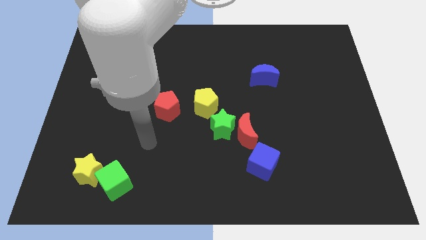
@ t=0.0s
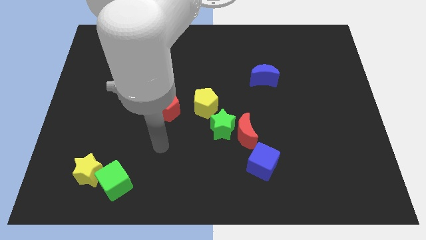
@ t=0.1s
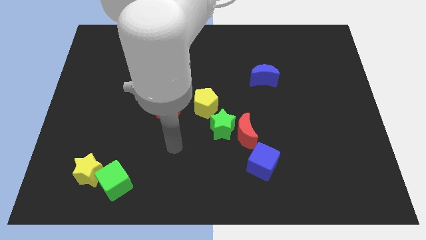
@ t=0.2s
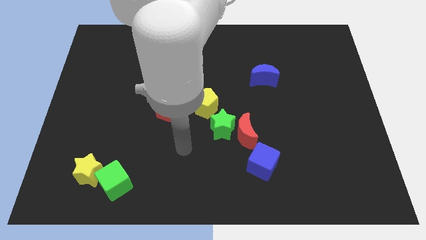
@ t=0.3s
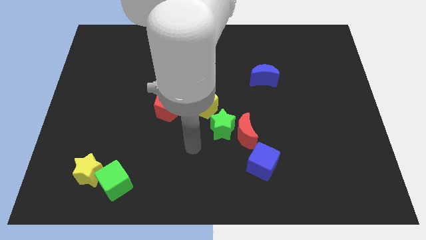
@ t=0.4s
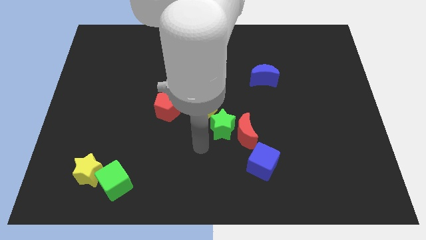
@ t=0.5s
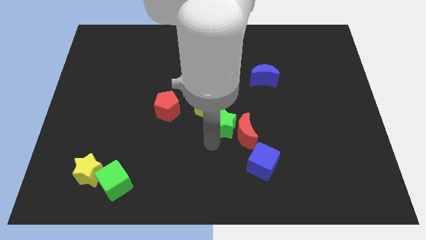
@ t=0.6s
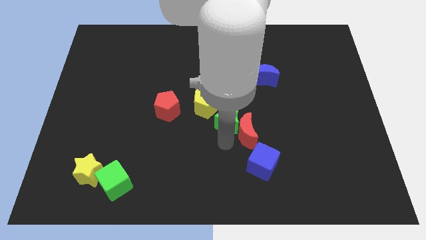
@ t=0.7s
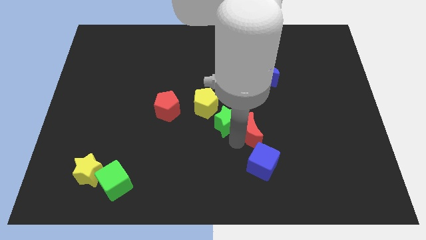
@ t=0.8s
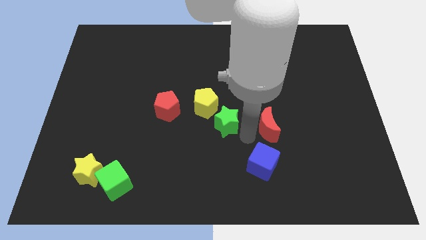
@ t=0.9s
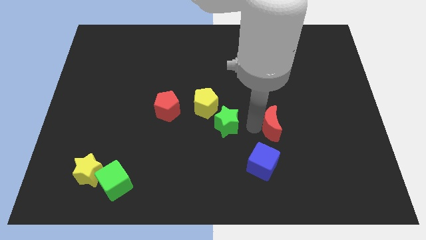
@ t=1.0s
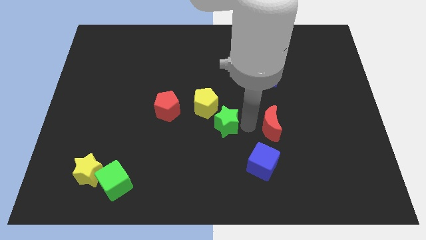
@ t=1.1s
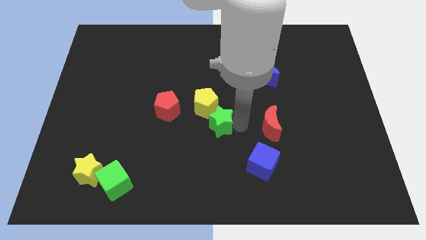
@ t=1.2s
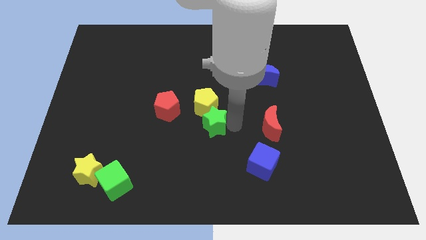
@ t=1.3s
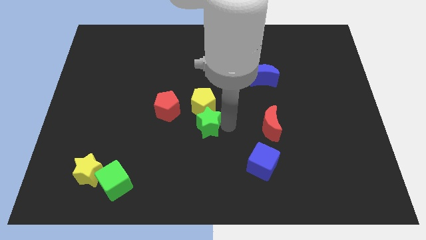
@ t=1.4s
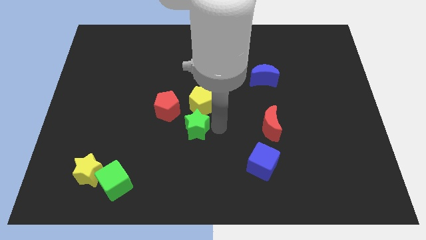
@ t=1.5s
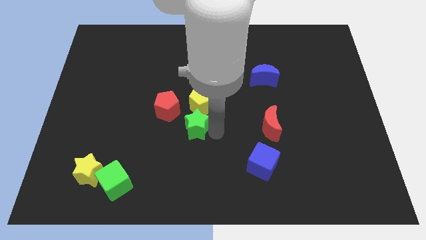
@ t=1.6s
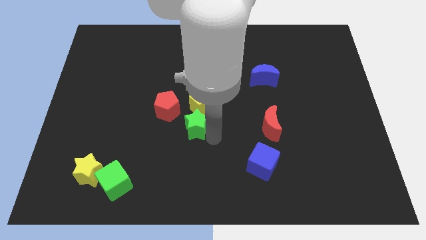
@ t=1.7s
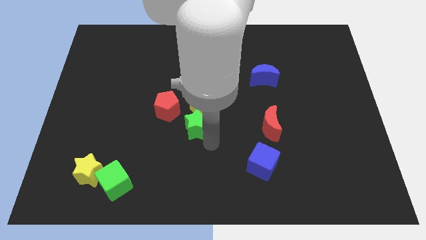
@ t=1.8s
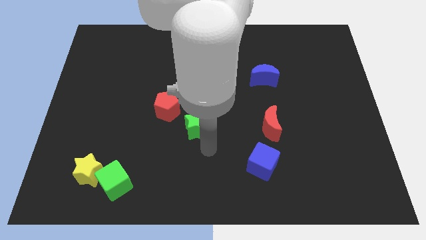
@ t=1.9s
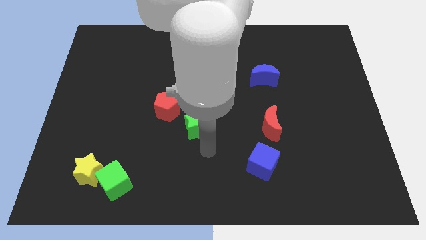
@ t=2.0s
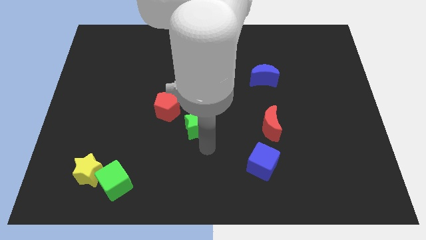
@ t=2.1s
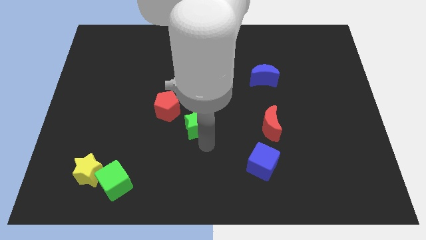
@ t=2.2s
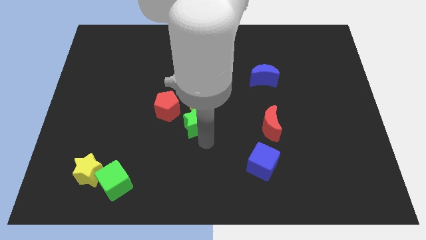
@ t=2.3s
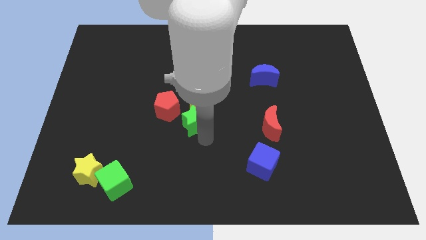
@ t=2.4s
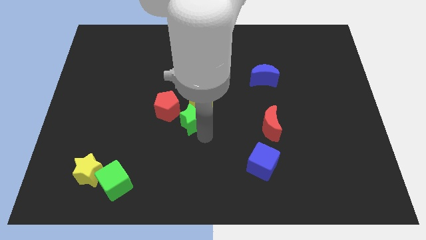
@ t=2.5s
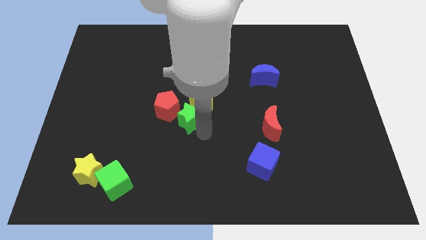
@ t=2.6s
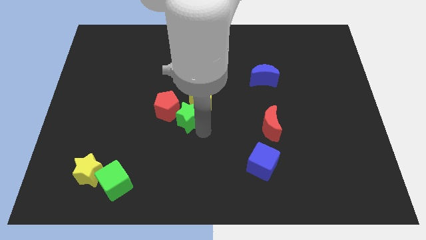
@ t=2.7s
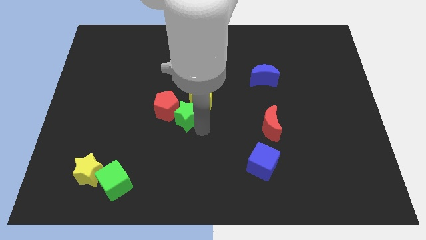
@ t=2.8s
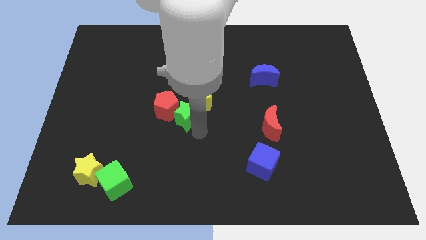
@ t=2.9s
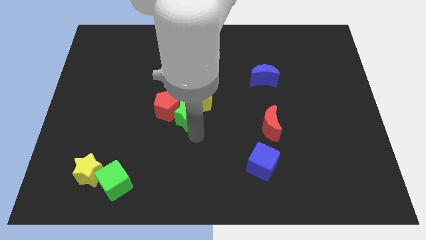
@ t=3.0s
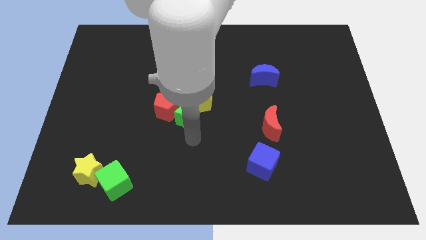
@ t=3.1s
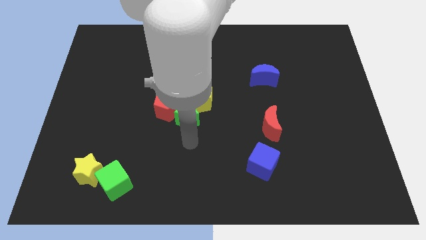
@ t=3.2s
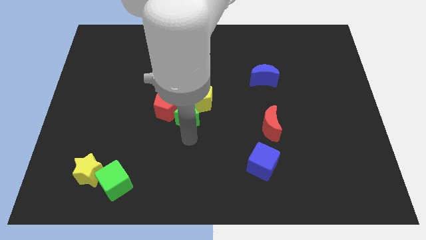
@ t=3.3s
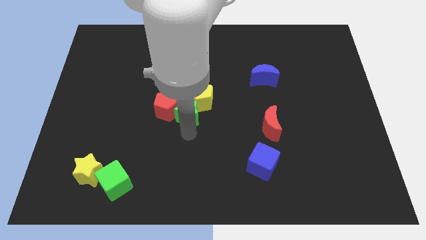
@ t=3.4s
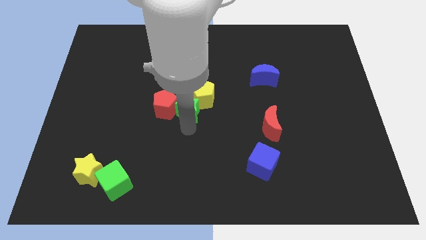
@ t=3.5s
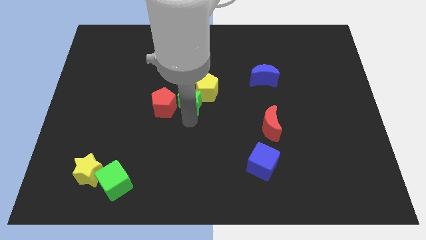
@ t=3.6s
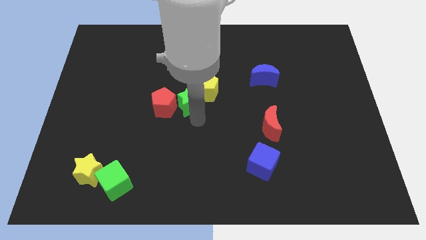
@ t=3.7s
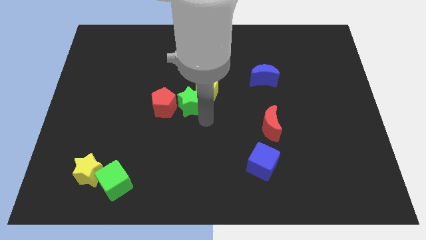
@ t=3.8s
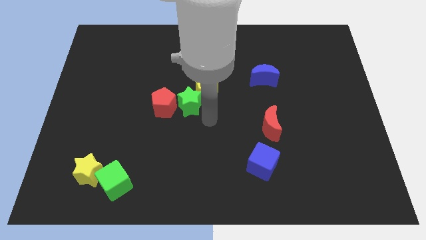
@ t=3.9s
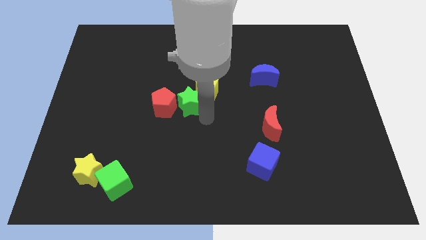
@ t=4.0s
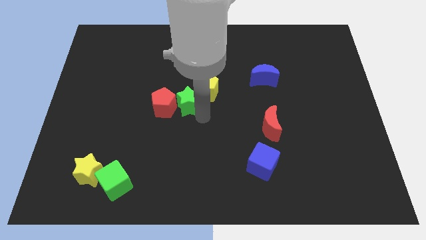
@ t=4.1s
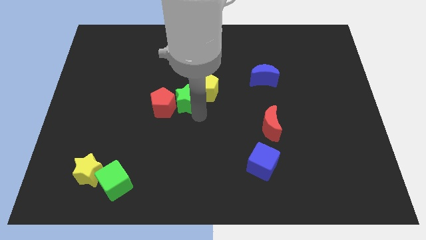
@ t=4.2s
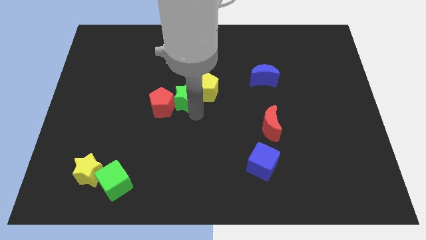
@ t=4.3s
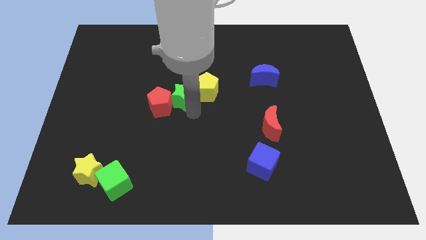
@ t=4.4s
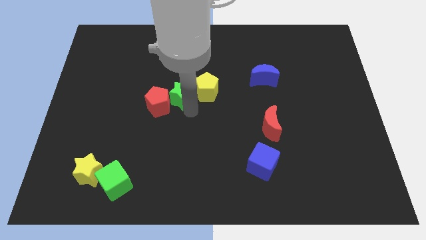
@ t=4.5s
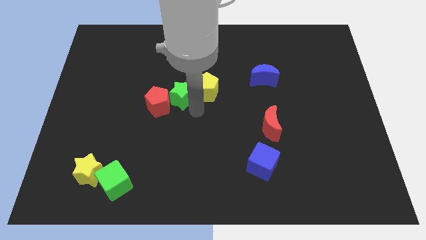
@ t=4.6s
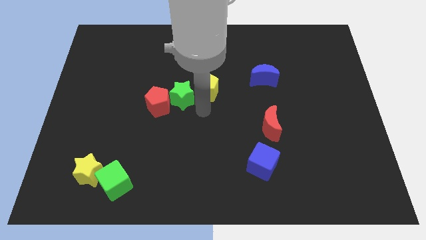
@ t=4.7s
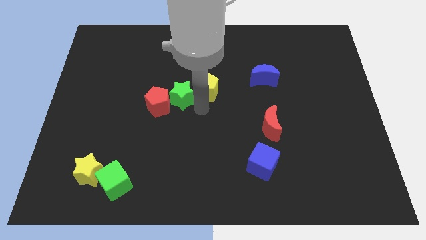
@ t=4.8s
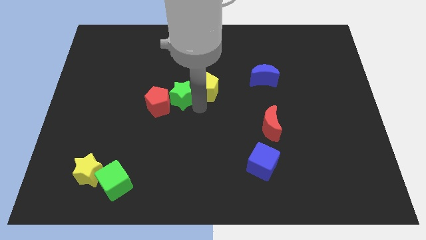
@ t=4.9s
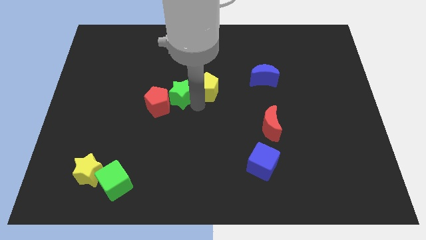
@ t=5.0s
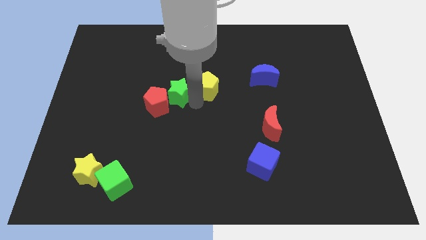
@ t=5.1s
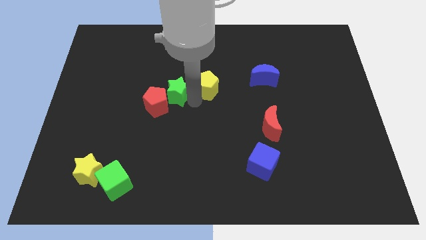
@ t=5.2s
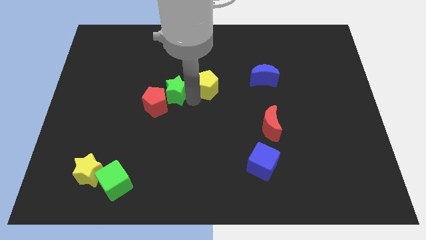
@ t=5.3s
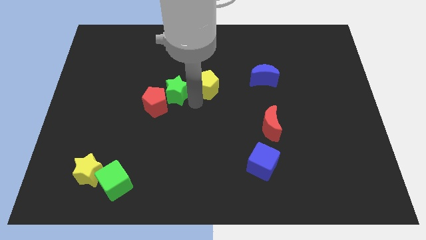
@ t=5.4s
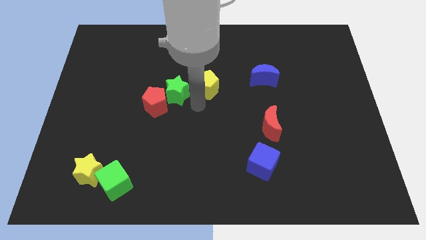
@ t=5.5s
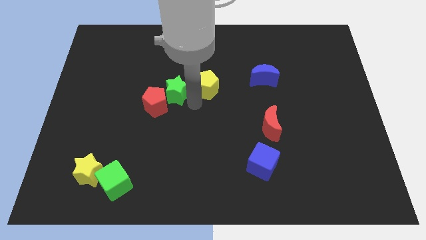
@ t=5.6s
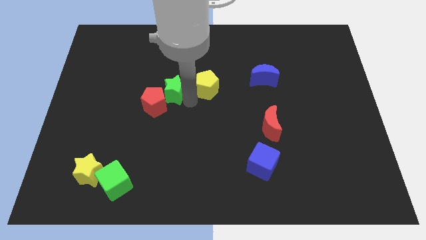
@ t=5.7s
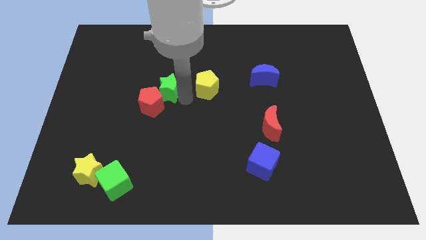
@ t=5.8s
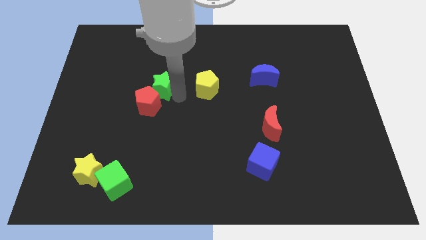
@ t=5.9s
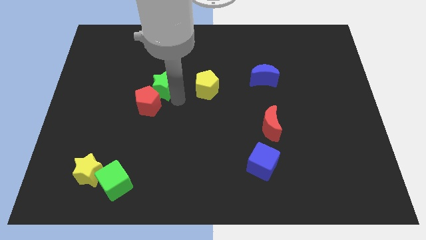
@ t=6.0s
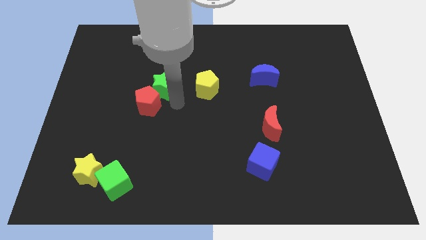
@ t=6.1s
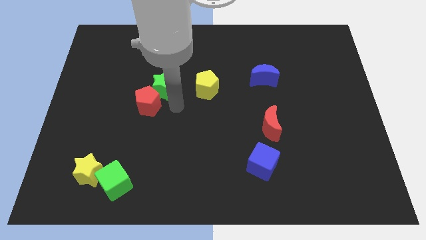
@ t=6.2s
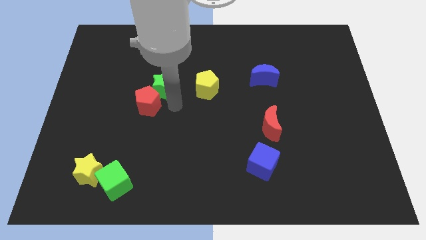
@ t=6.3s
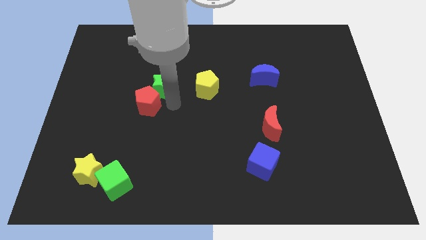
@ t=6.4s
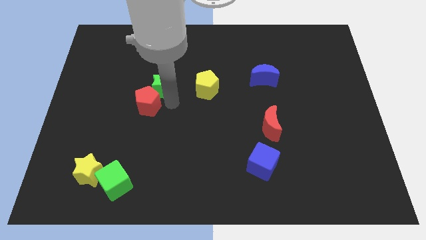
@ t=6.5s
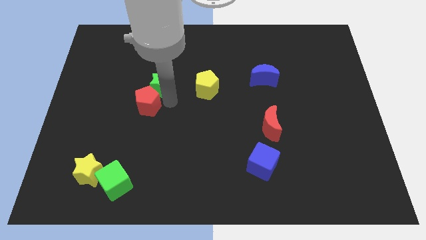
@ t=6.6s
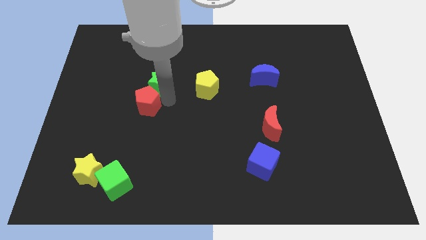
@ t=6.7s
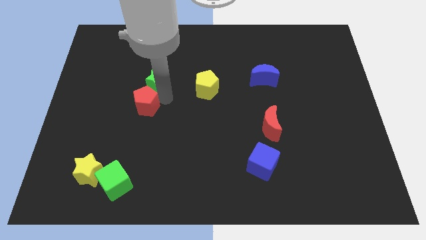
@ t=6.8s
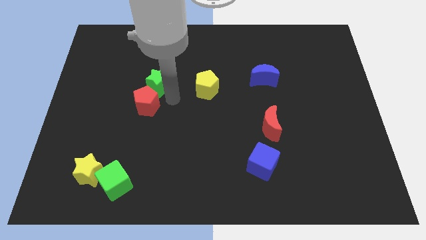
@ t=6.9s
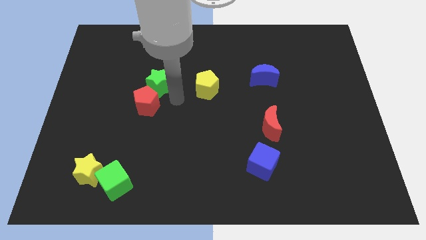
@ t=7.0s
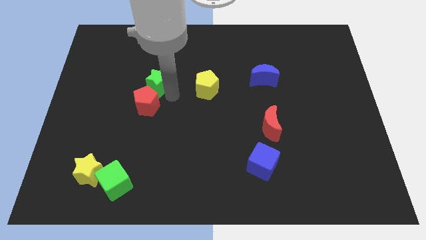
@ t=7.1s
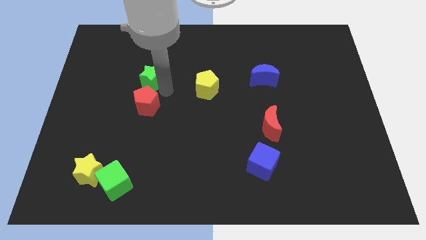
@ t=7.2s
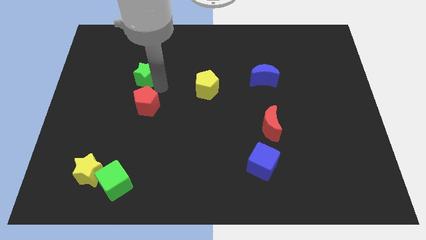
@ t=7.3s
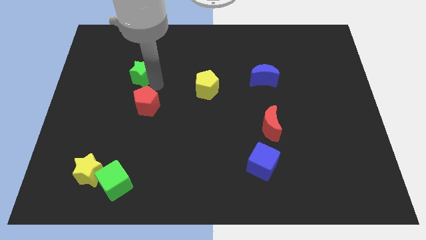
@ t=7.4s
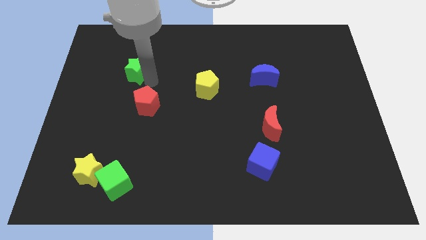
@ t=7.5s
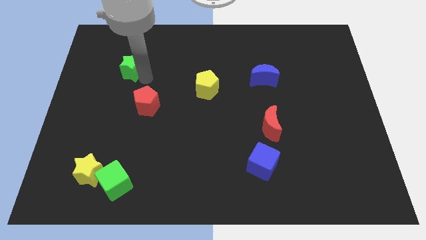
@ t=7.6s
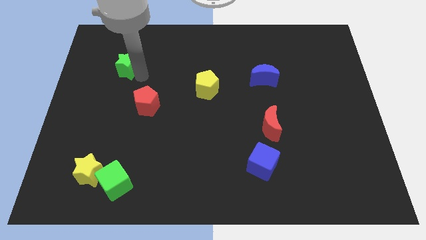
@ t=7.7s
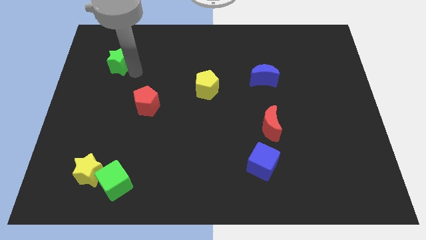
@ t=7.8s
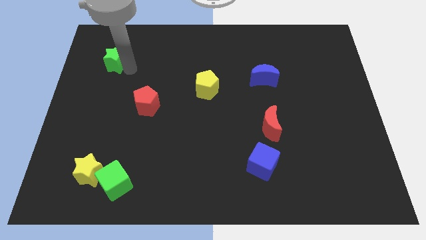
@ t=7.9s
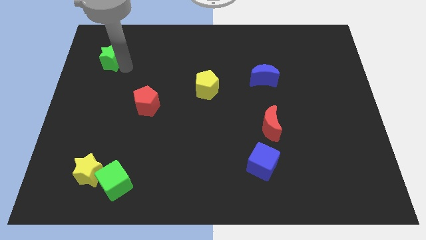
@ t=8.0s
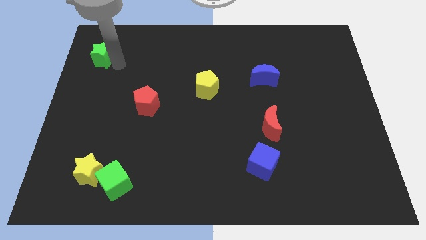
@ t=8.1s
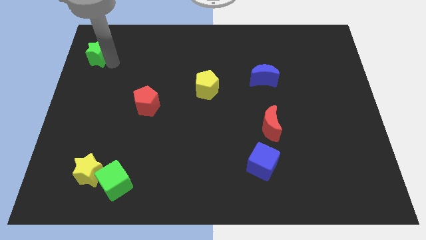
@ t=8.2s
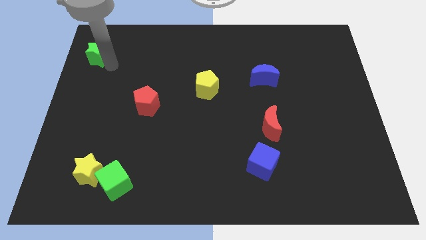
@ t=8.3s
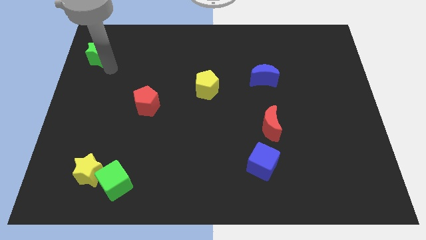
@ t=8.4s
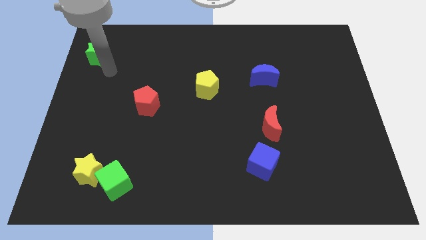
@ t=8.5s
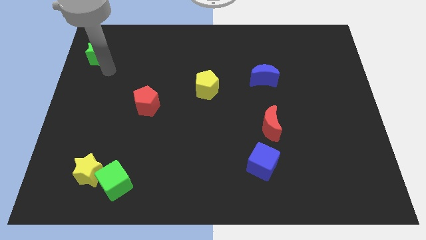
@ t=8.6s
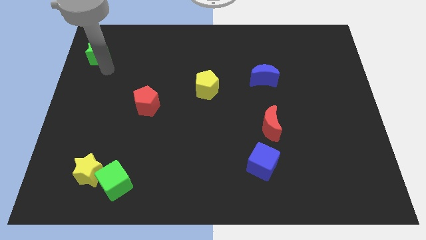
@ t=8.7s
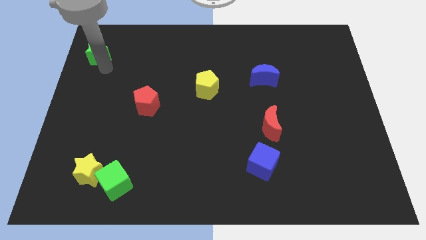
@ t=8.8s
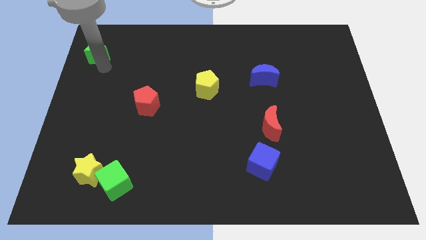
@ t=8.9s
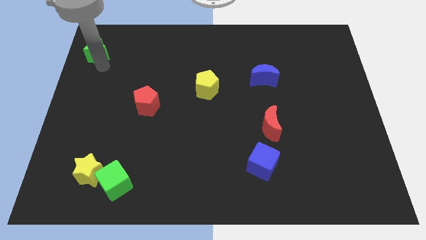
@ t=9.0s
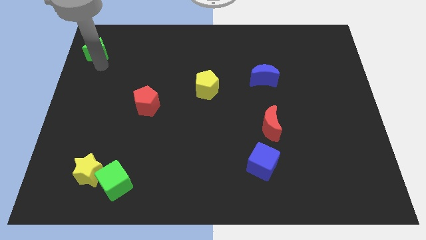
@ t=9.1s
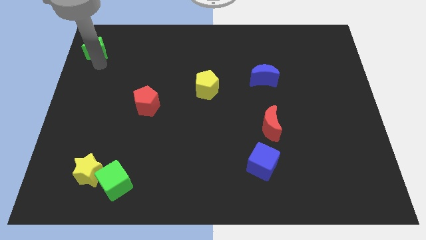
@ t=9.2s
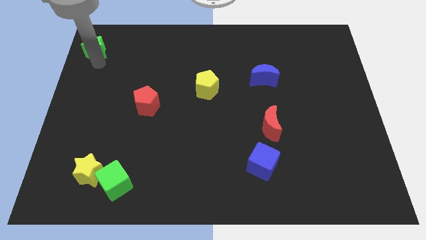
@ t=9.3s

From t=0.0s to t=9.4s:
slide the green star to the upper left corner
